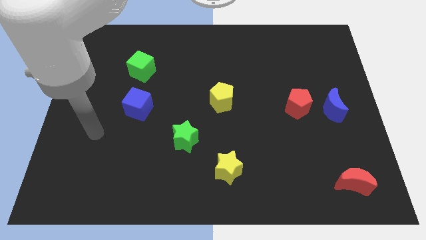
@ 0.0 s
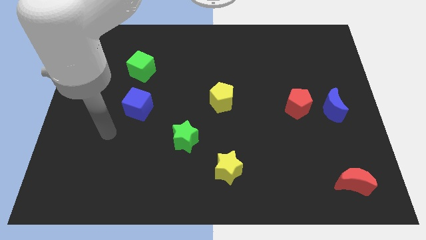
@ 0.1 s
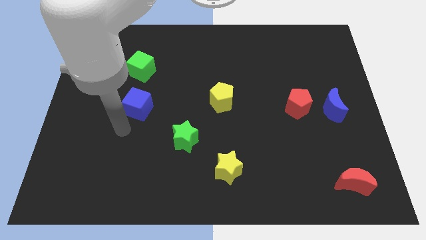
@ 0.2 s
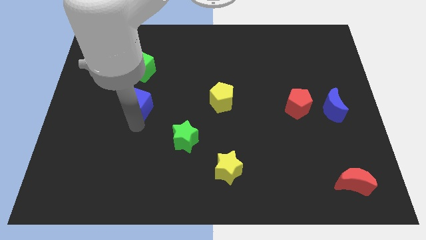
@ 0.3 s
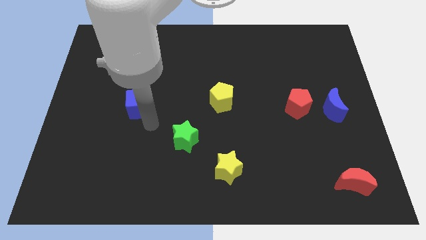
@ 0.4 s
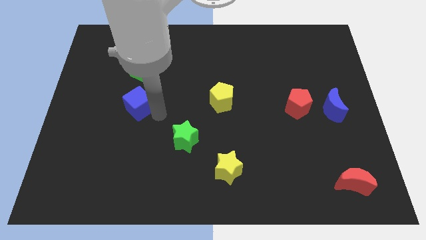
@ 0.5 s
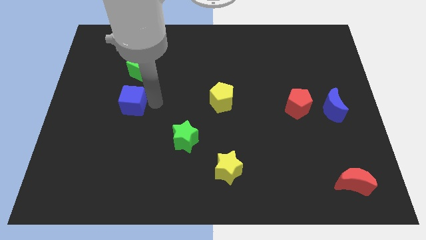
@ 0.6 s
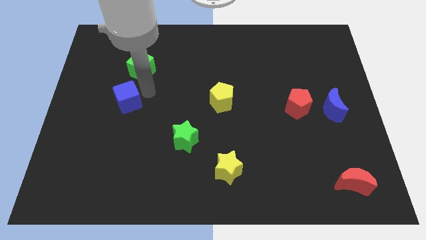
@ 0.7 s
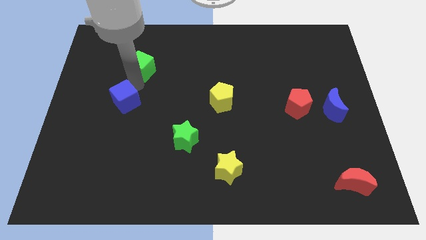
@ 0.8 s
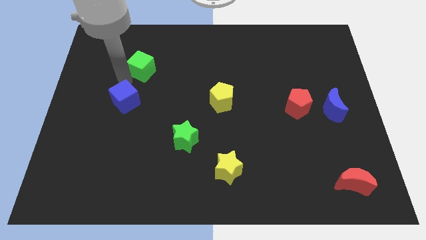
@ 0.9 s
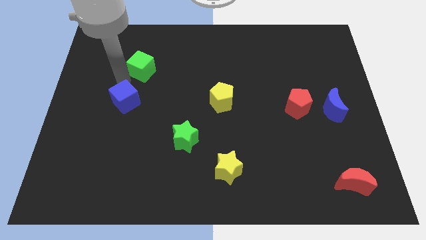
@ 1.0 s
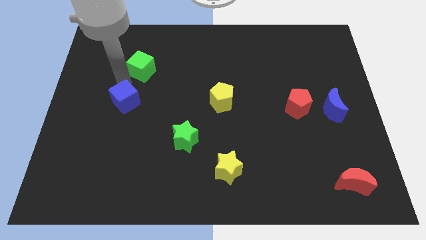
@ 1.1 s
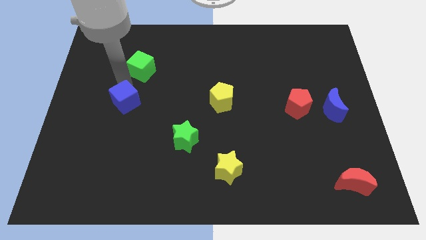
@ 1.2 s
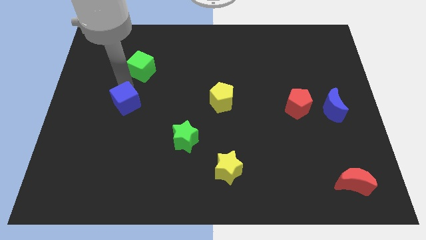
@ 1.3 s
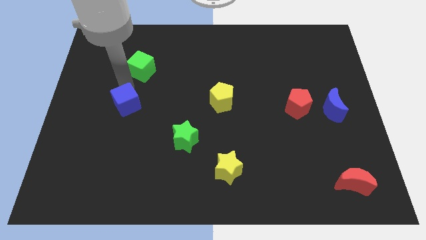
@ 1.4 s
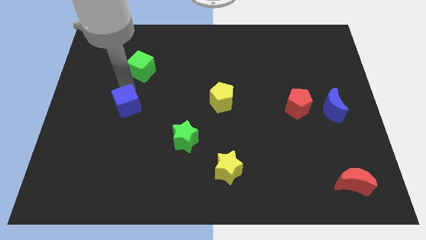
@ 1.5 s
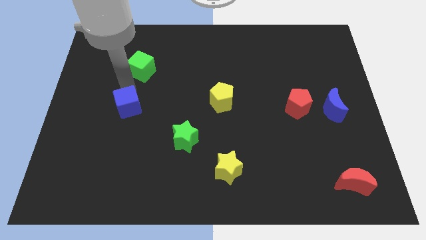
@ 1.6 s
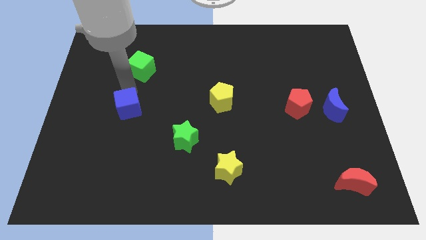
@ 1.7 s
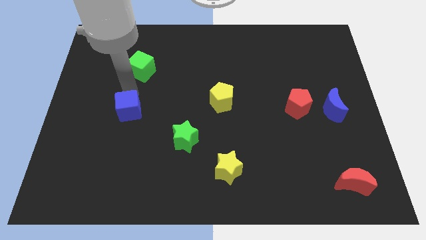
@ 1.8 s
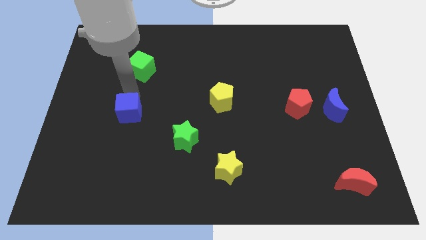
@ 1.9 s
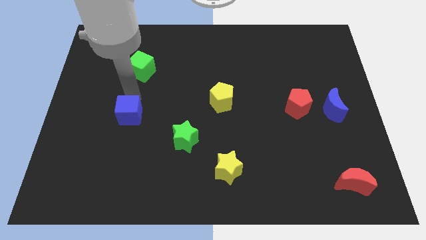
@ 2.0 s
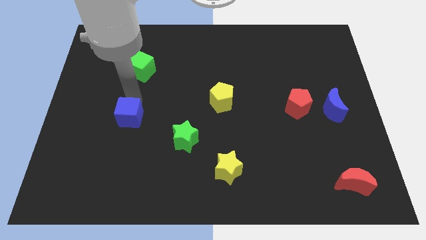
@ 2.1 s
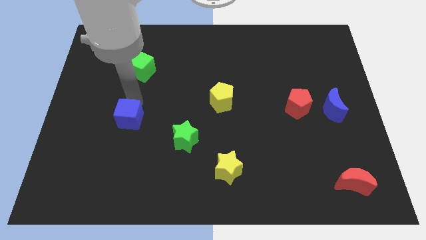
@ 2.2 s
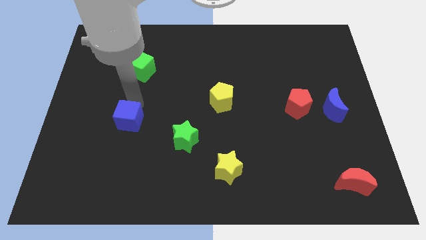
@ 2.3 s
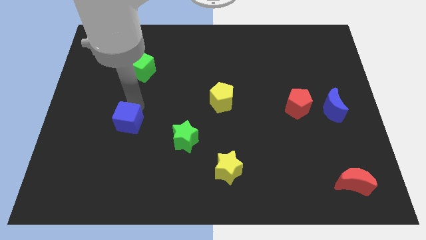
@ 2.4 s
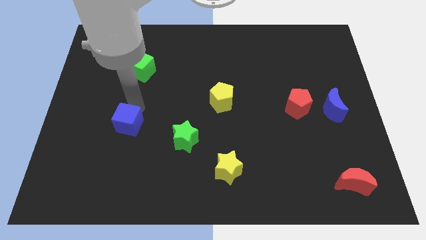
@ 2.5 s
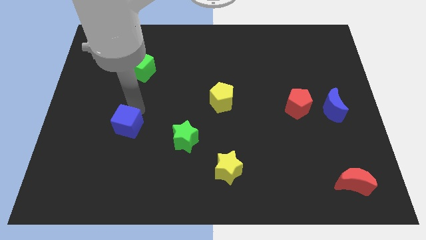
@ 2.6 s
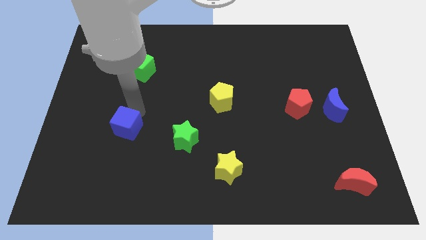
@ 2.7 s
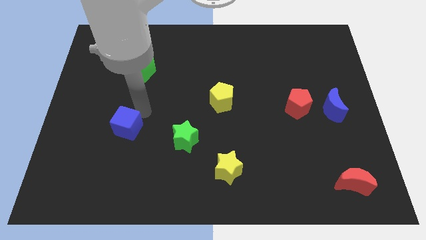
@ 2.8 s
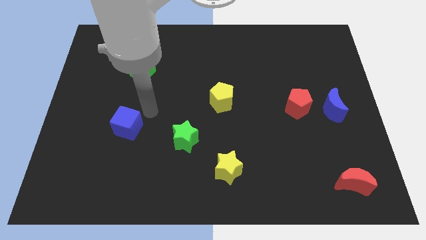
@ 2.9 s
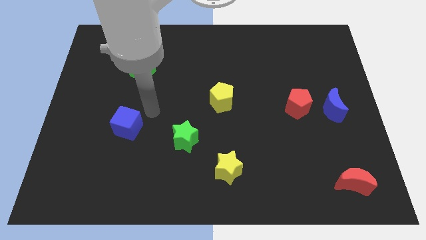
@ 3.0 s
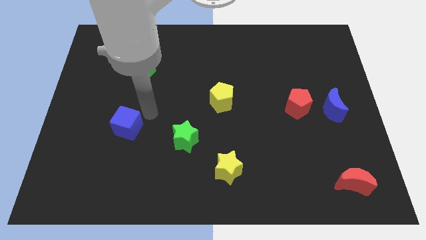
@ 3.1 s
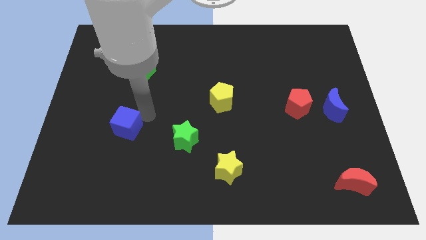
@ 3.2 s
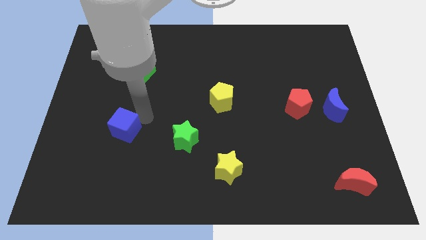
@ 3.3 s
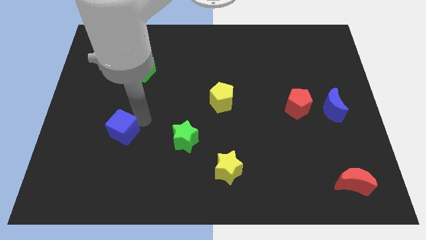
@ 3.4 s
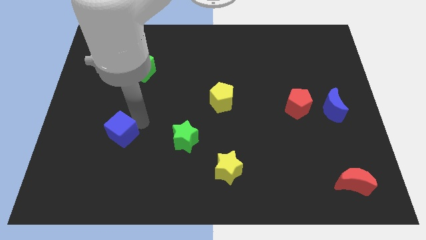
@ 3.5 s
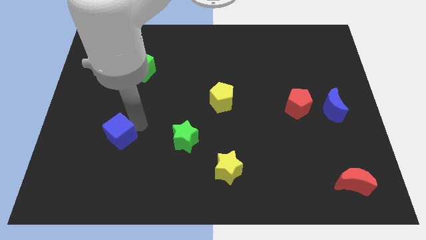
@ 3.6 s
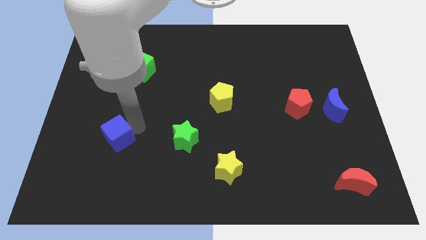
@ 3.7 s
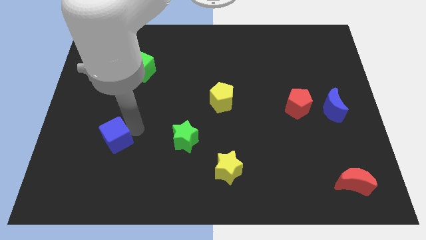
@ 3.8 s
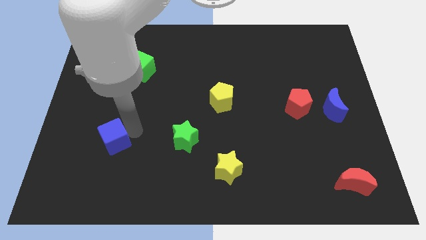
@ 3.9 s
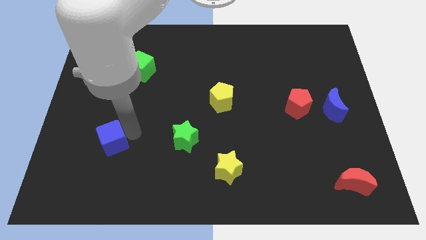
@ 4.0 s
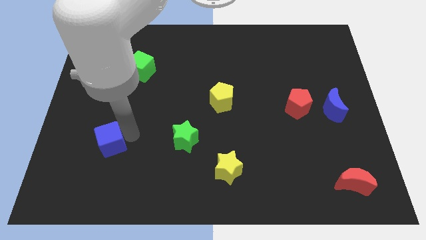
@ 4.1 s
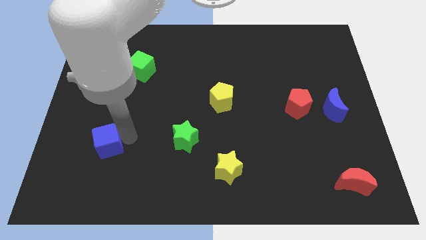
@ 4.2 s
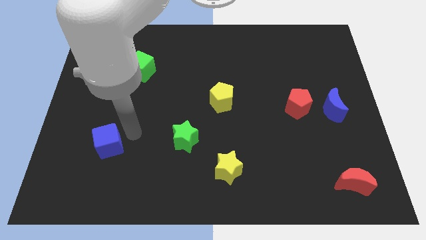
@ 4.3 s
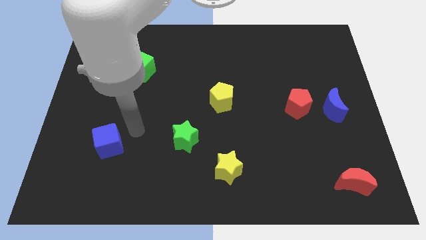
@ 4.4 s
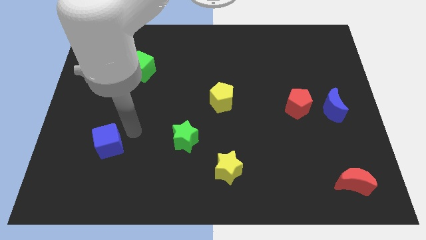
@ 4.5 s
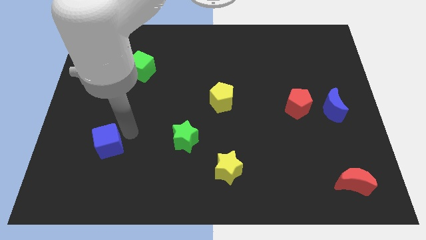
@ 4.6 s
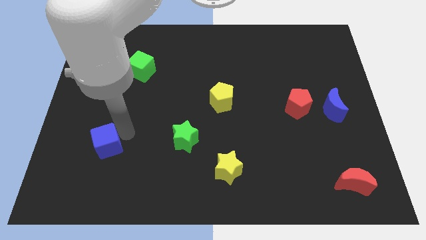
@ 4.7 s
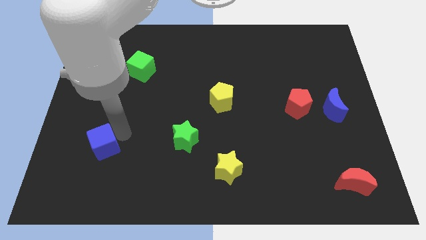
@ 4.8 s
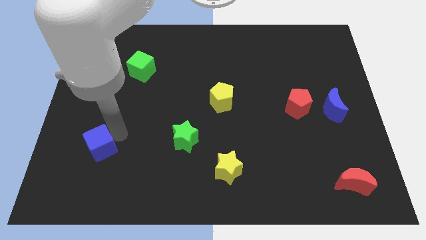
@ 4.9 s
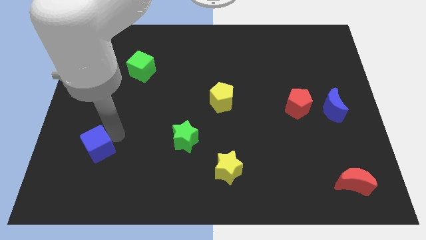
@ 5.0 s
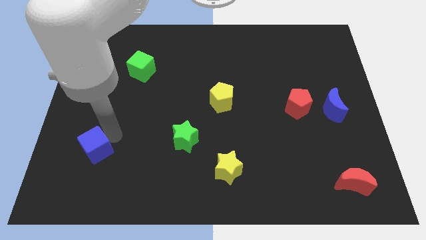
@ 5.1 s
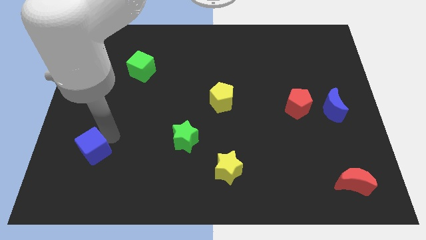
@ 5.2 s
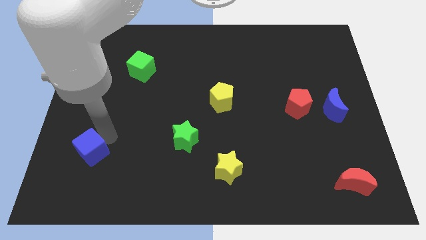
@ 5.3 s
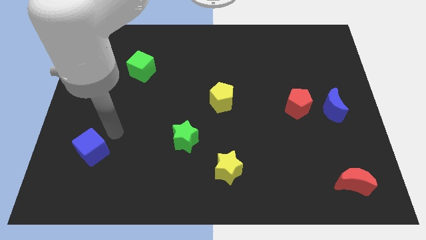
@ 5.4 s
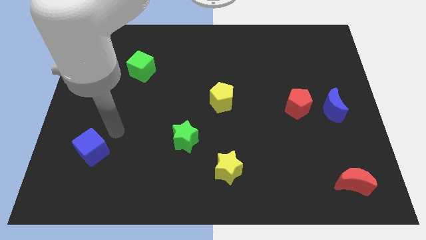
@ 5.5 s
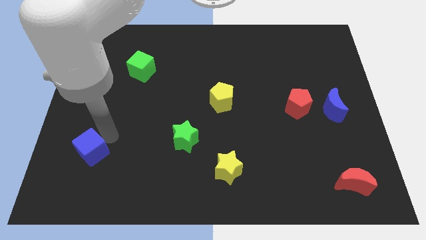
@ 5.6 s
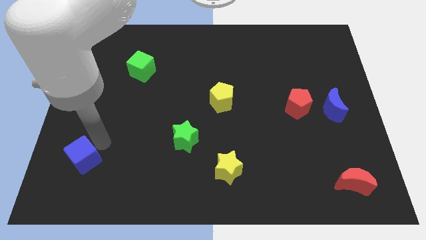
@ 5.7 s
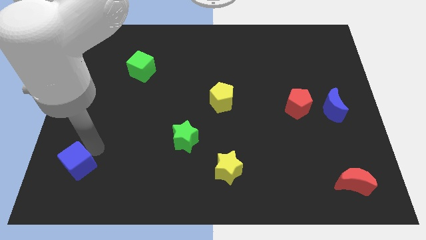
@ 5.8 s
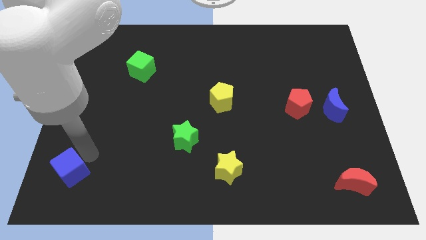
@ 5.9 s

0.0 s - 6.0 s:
push the blue cube to the bottom left of the board
